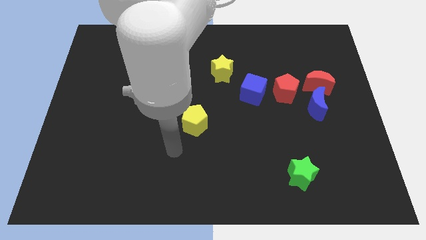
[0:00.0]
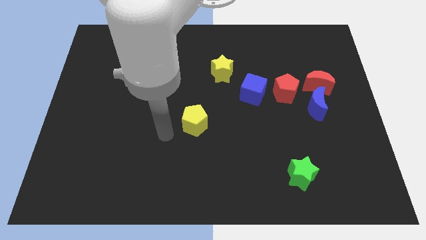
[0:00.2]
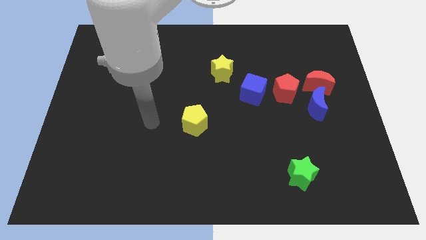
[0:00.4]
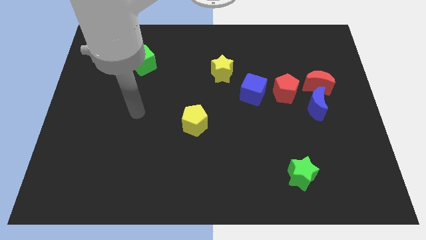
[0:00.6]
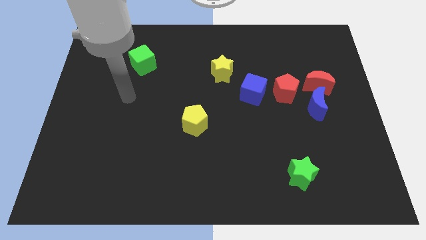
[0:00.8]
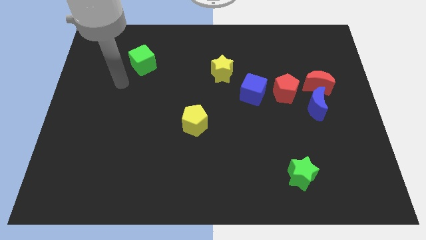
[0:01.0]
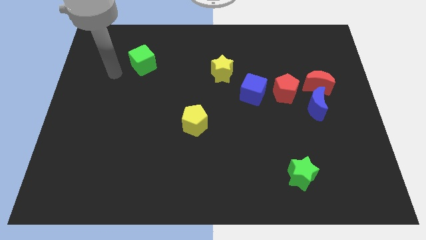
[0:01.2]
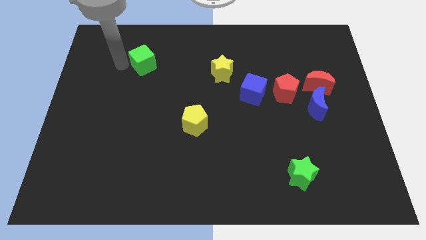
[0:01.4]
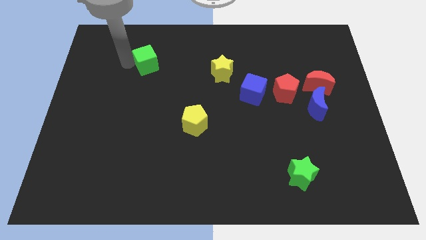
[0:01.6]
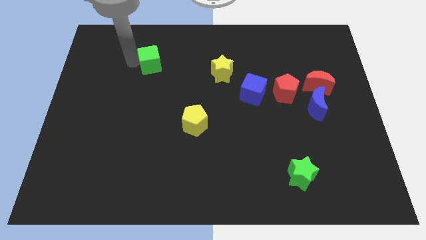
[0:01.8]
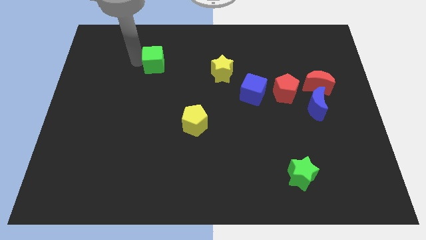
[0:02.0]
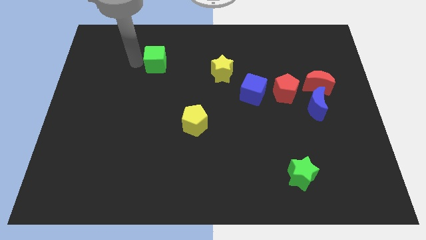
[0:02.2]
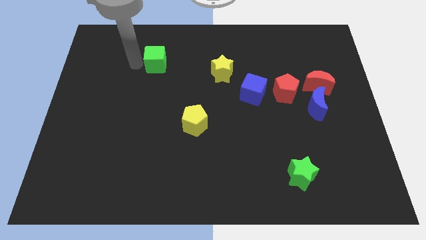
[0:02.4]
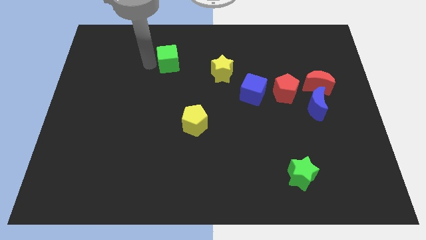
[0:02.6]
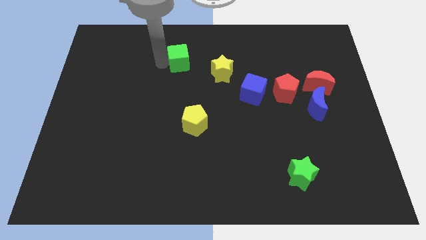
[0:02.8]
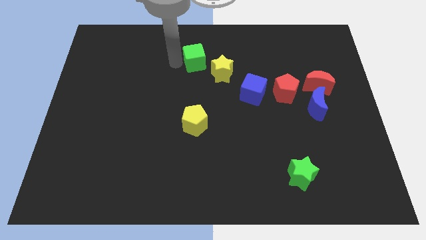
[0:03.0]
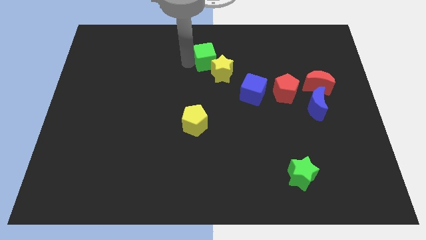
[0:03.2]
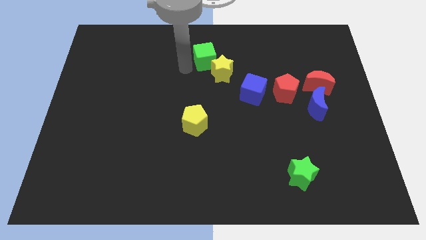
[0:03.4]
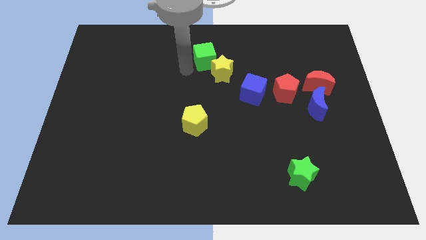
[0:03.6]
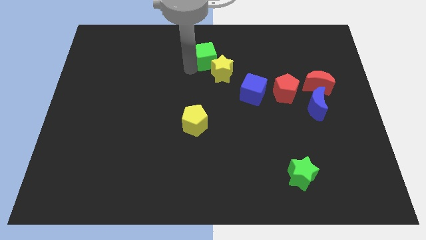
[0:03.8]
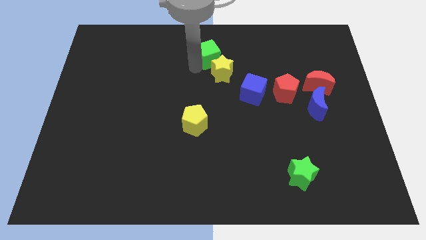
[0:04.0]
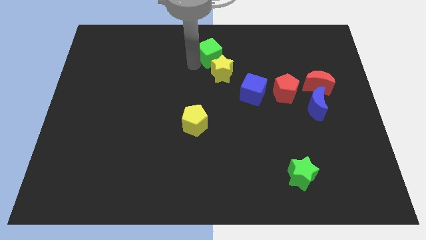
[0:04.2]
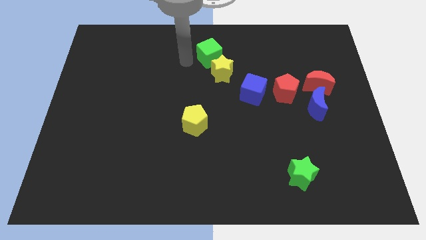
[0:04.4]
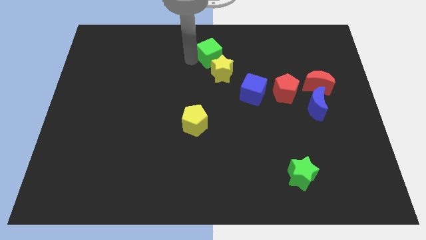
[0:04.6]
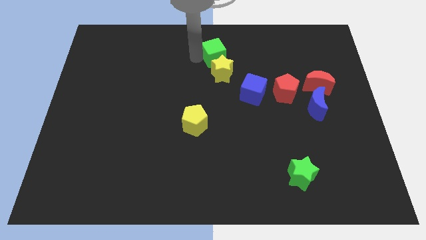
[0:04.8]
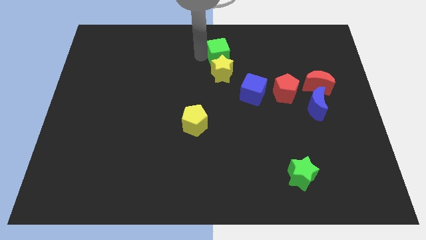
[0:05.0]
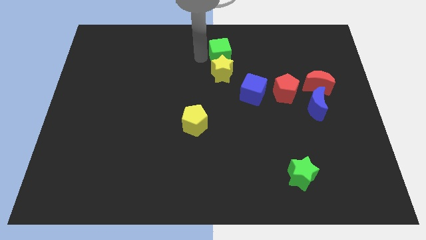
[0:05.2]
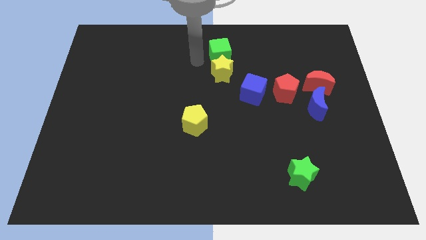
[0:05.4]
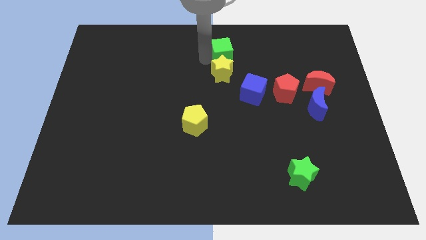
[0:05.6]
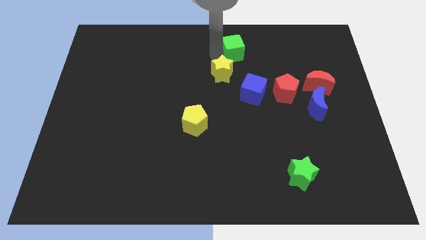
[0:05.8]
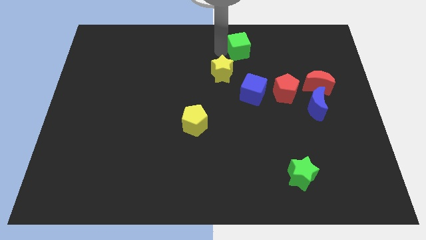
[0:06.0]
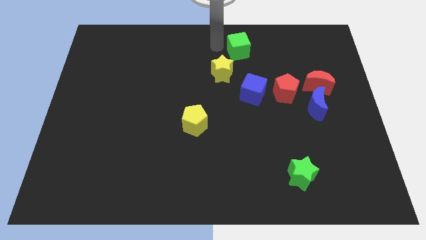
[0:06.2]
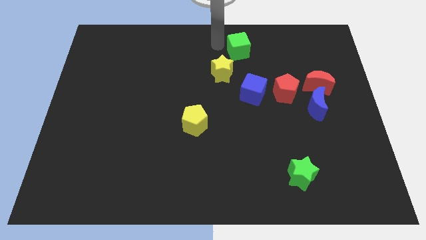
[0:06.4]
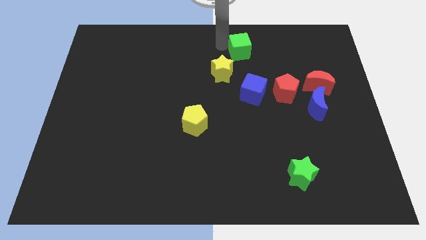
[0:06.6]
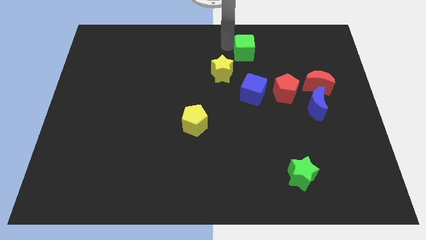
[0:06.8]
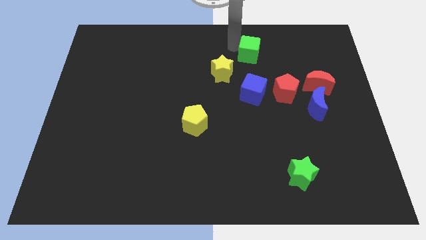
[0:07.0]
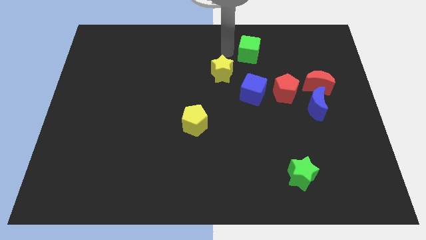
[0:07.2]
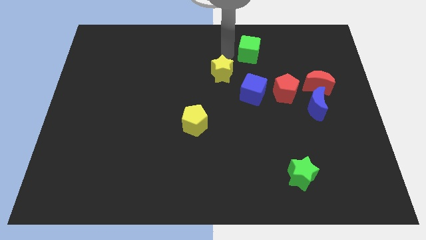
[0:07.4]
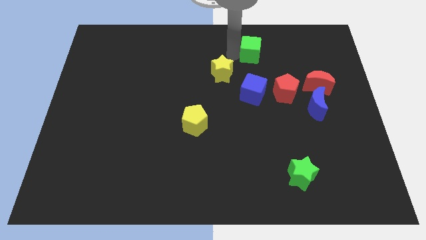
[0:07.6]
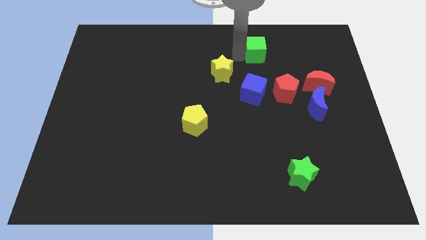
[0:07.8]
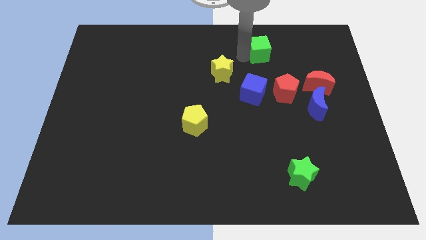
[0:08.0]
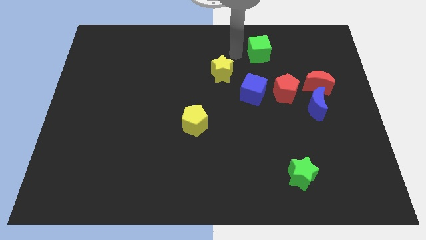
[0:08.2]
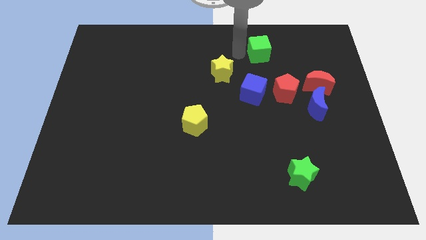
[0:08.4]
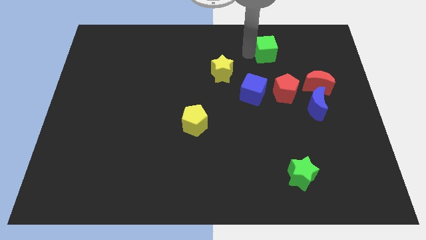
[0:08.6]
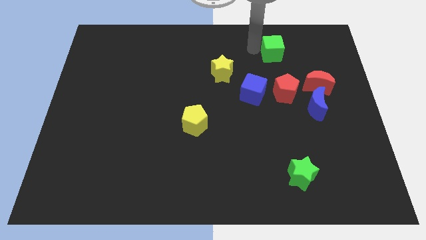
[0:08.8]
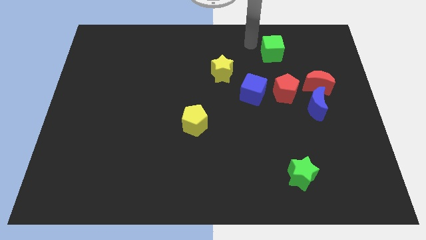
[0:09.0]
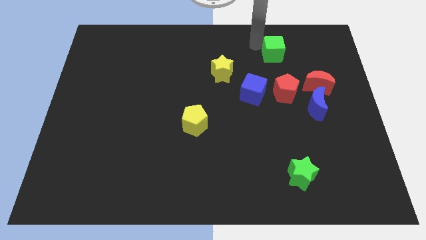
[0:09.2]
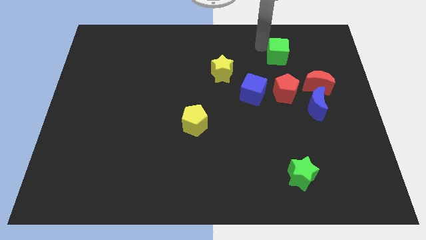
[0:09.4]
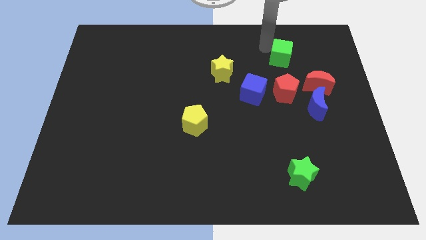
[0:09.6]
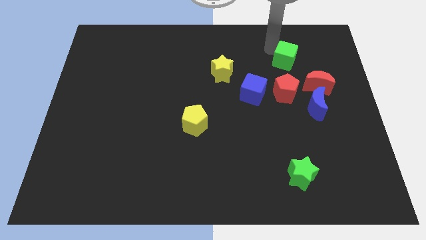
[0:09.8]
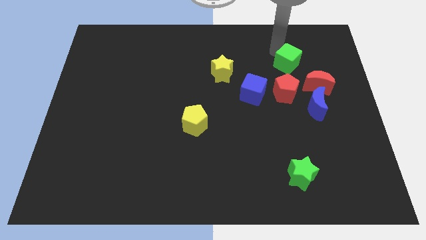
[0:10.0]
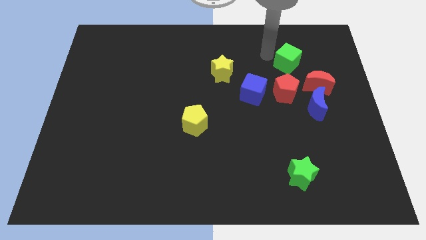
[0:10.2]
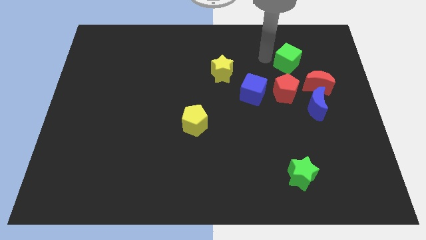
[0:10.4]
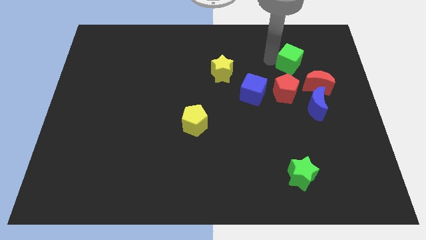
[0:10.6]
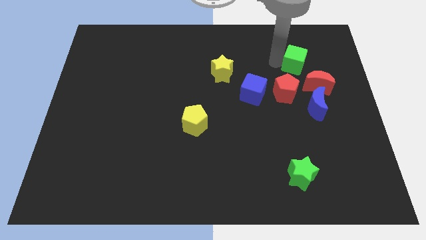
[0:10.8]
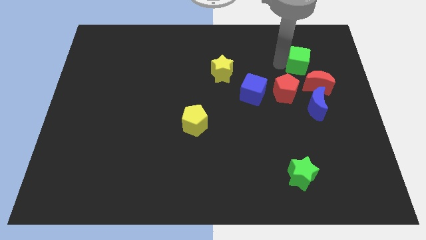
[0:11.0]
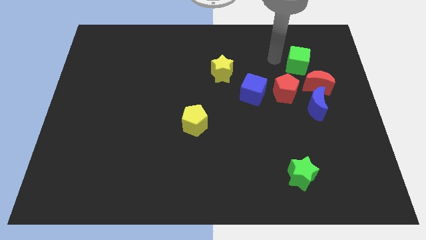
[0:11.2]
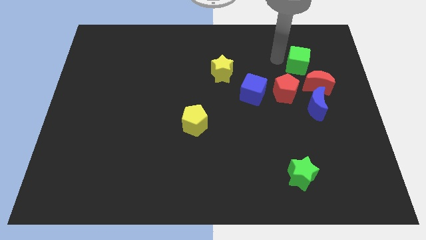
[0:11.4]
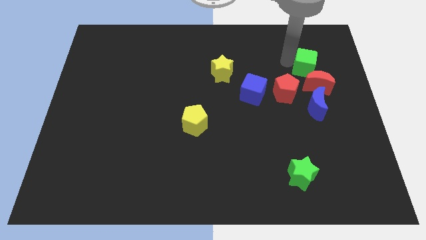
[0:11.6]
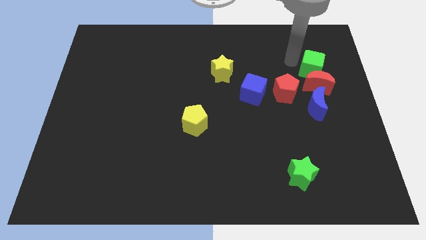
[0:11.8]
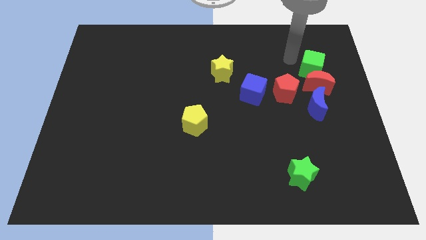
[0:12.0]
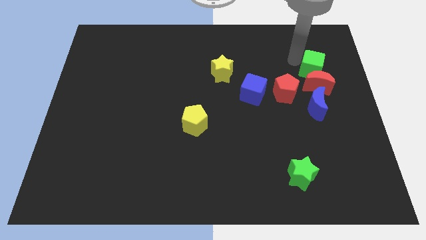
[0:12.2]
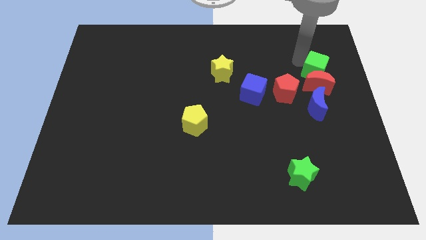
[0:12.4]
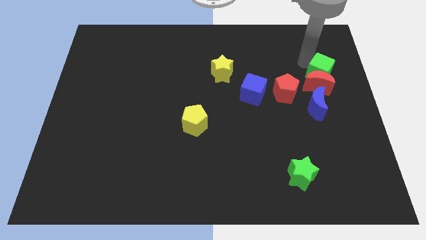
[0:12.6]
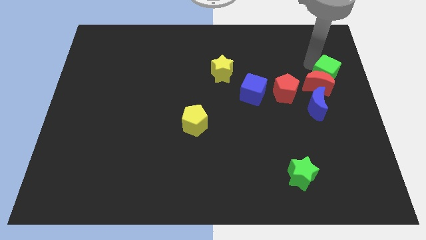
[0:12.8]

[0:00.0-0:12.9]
slide the green cube to the right side of the board

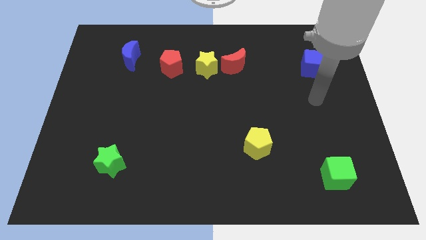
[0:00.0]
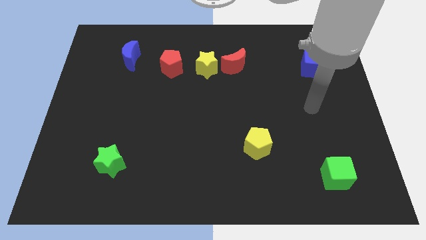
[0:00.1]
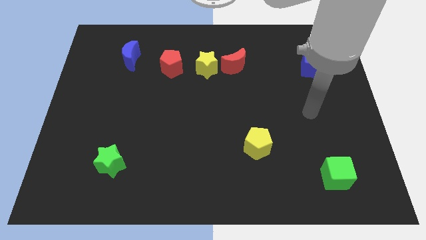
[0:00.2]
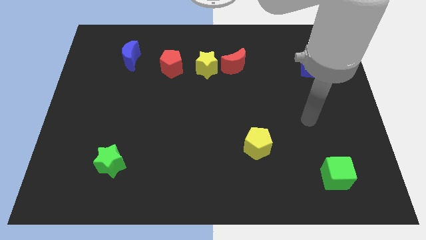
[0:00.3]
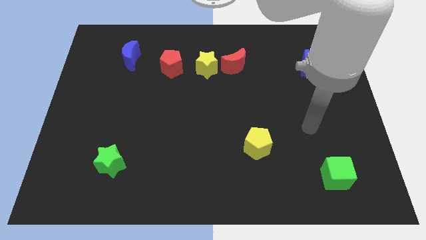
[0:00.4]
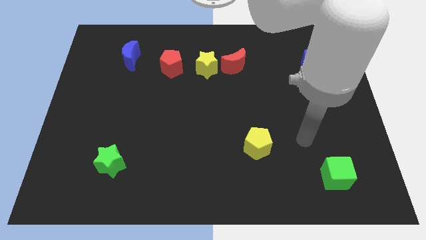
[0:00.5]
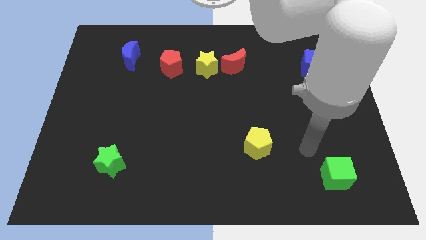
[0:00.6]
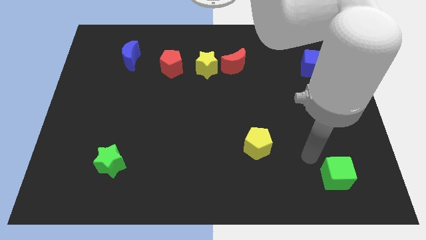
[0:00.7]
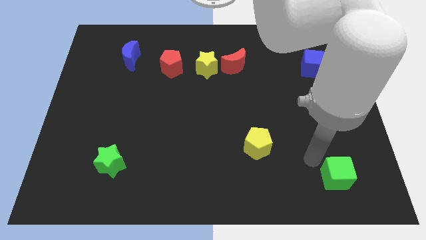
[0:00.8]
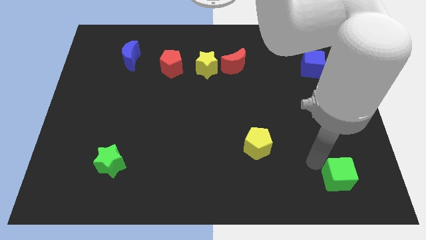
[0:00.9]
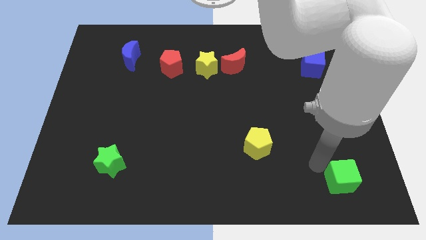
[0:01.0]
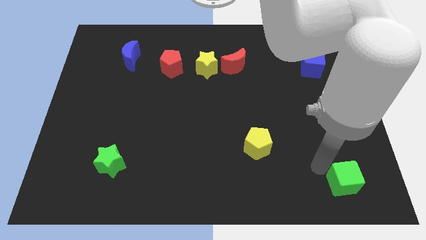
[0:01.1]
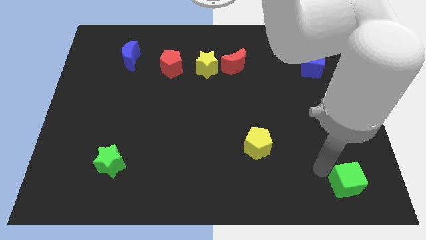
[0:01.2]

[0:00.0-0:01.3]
push the green cube to the lower right corner
